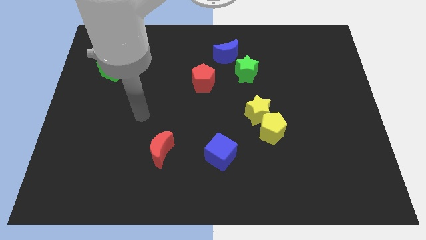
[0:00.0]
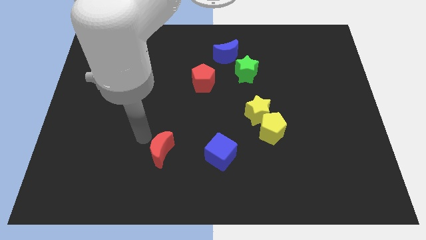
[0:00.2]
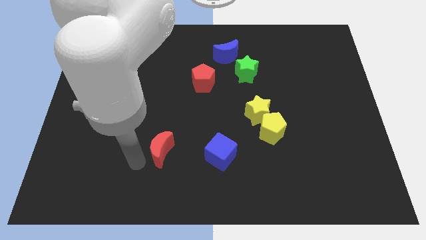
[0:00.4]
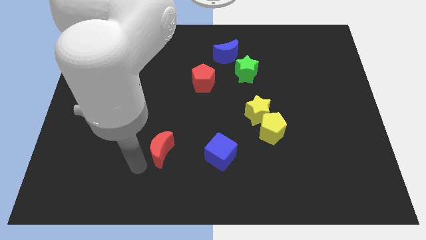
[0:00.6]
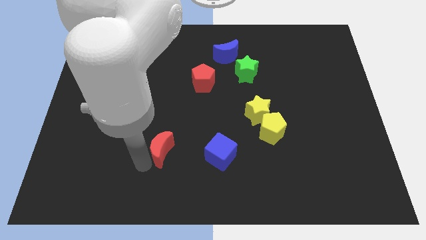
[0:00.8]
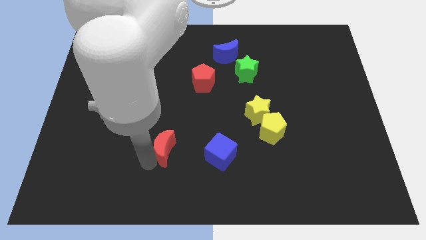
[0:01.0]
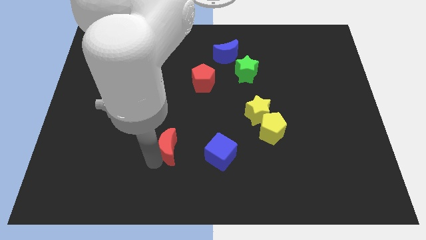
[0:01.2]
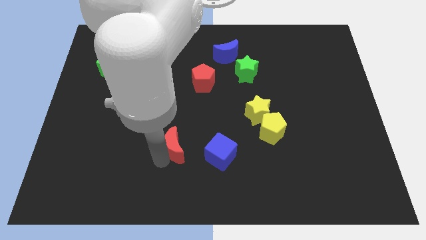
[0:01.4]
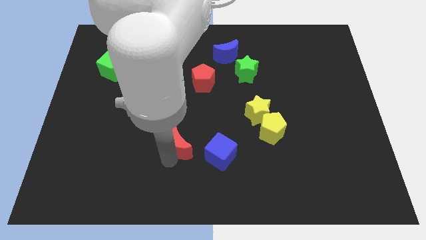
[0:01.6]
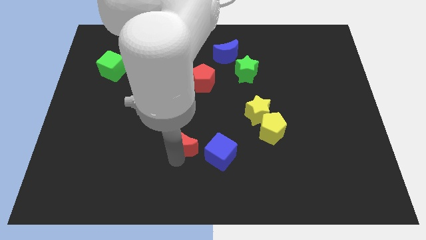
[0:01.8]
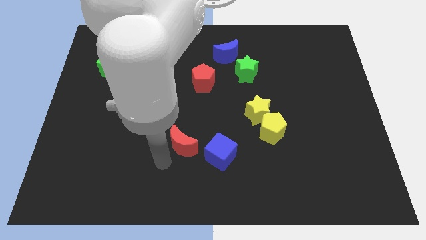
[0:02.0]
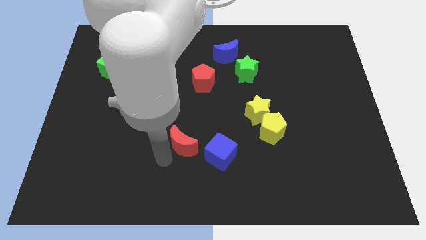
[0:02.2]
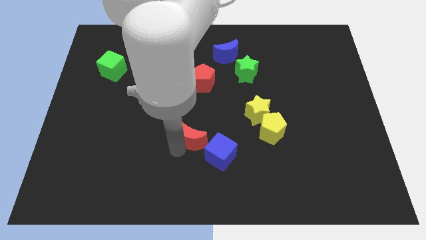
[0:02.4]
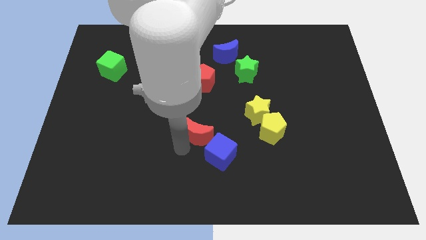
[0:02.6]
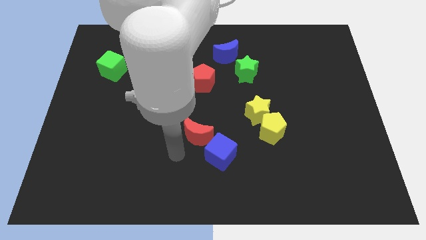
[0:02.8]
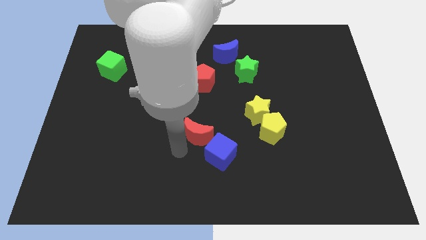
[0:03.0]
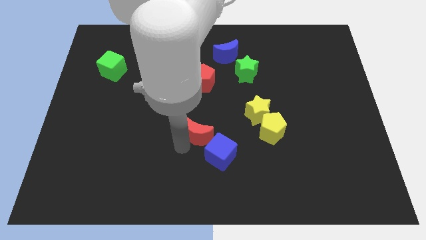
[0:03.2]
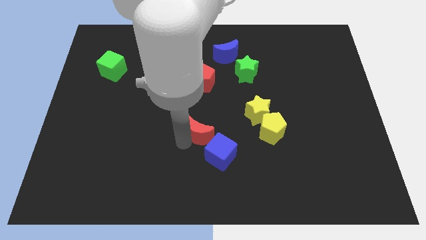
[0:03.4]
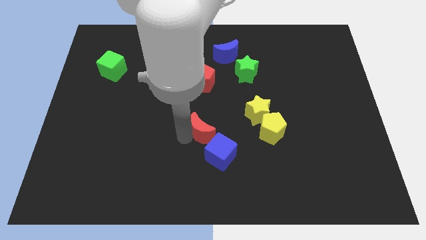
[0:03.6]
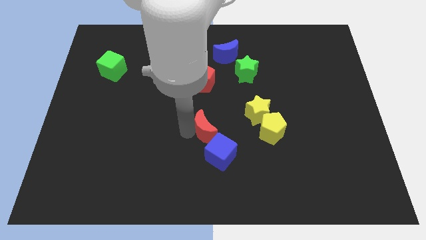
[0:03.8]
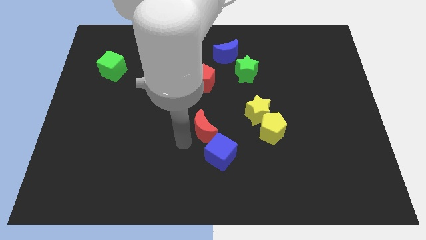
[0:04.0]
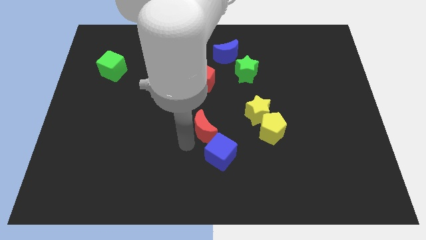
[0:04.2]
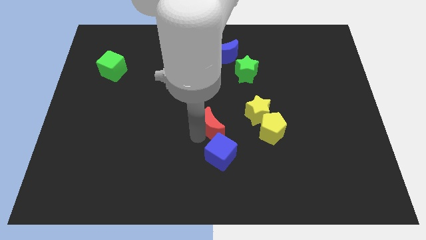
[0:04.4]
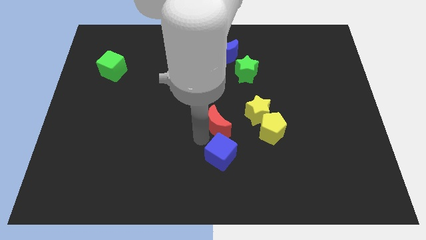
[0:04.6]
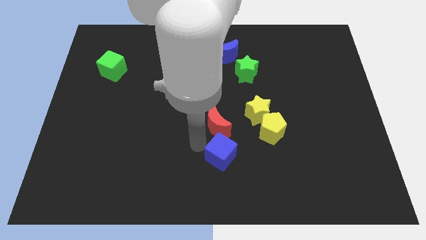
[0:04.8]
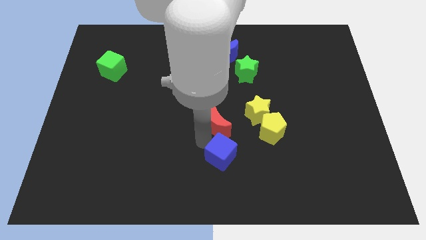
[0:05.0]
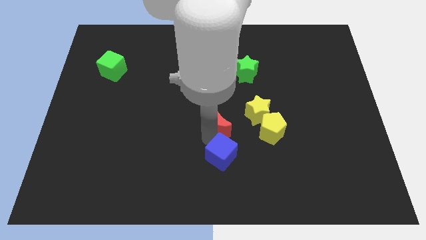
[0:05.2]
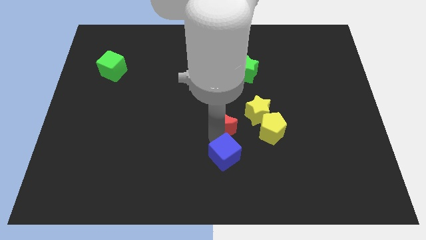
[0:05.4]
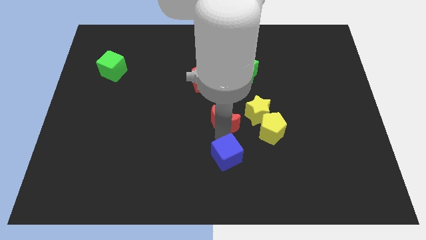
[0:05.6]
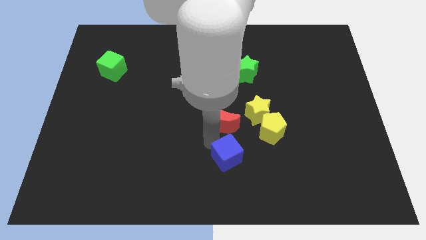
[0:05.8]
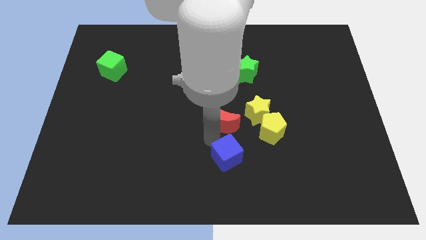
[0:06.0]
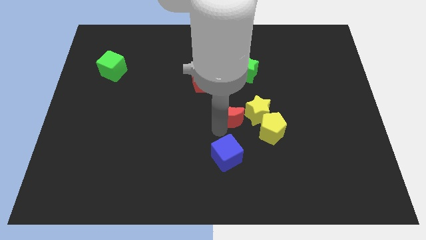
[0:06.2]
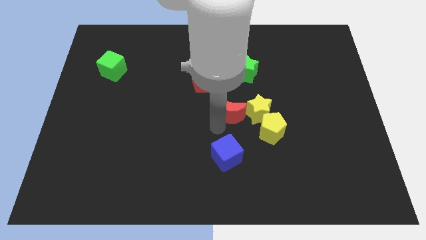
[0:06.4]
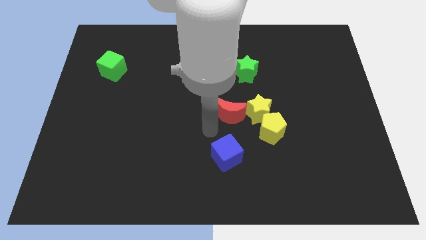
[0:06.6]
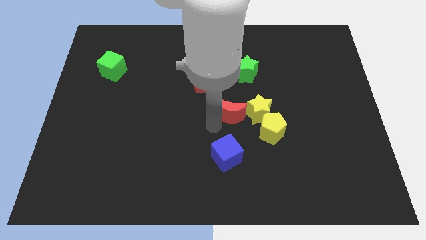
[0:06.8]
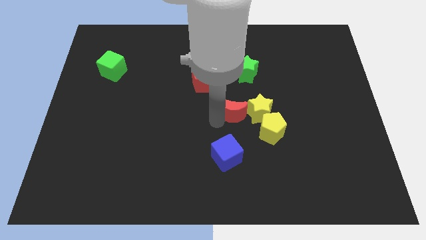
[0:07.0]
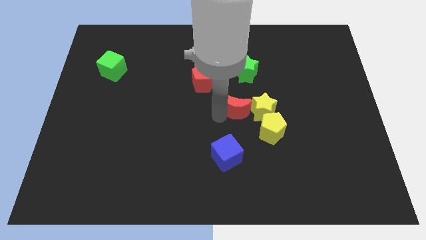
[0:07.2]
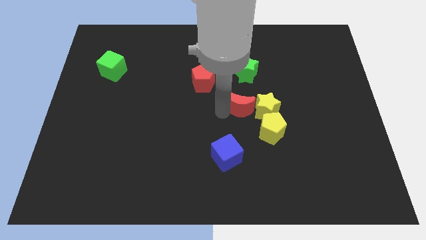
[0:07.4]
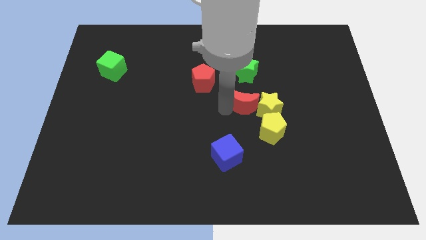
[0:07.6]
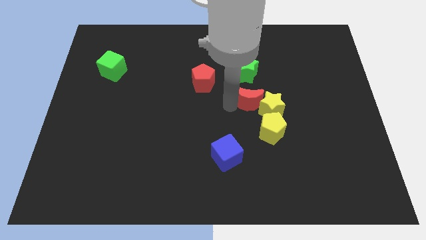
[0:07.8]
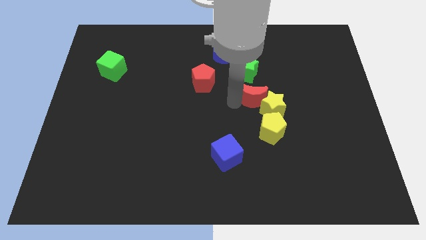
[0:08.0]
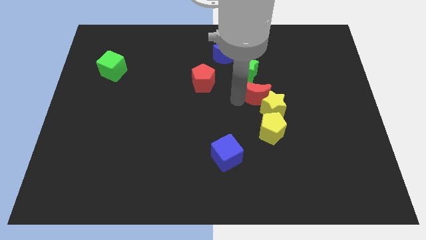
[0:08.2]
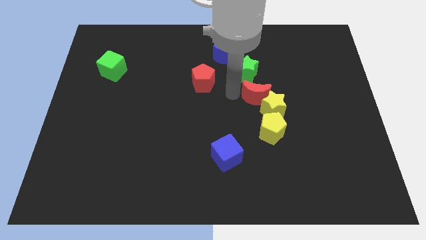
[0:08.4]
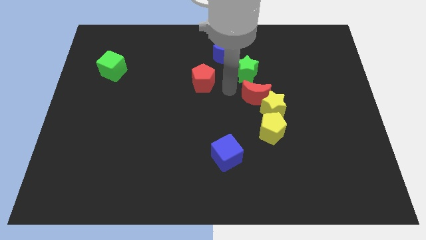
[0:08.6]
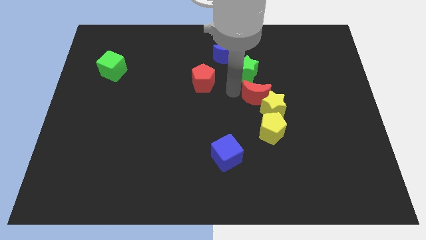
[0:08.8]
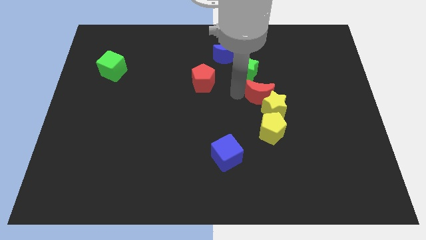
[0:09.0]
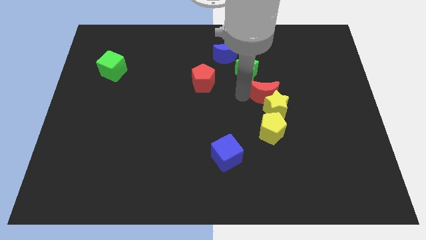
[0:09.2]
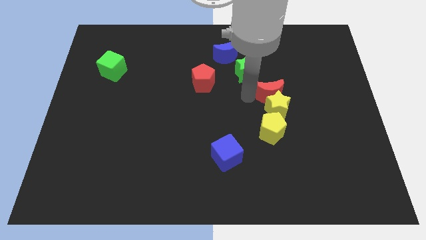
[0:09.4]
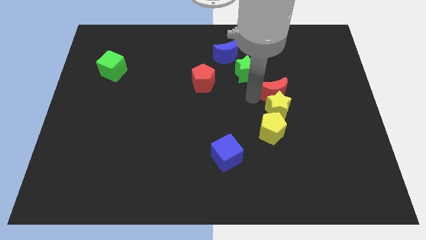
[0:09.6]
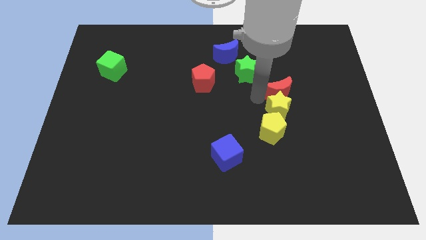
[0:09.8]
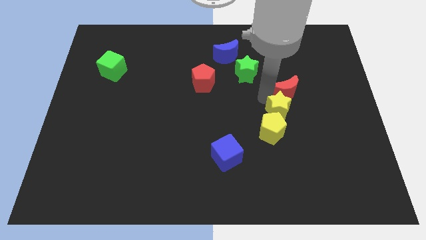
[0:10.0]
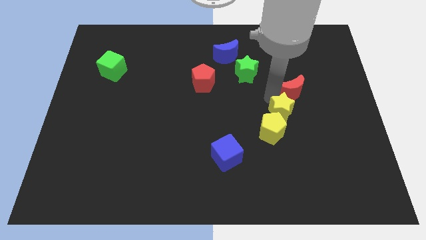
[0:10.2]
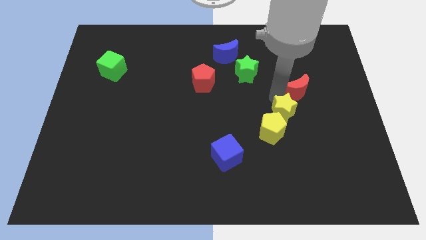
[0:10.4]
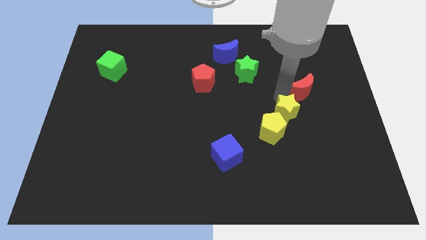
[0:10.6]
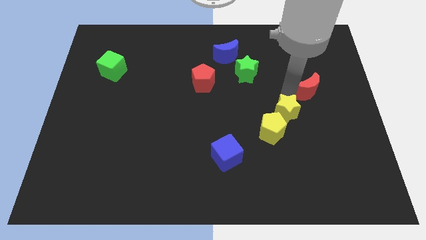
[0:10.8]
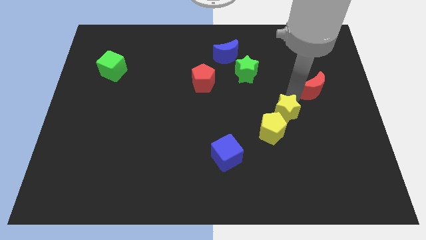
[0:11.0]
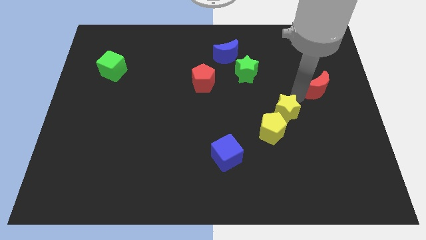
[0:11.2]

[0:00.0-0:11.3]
push the red moon to the center right

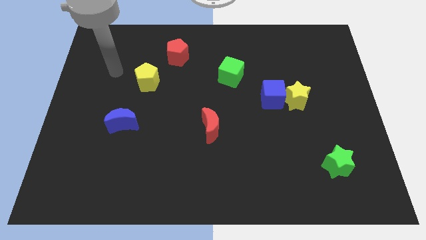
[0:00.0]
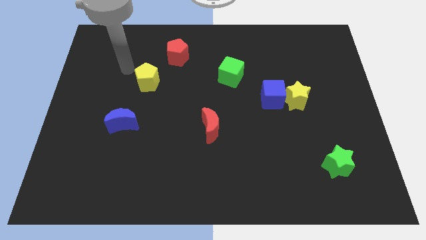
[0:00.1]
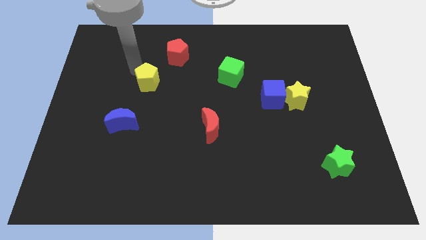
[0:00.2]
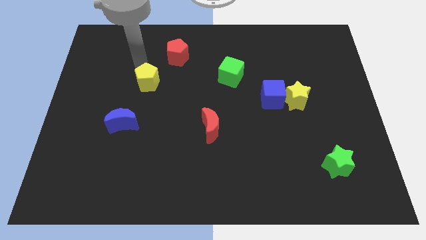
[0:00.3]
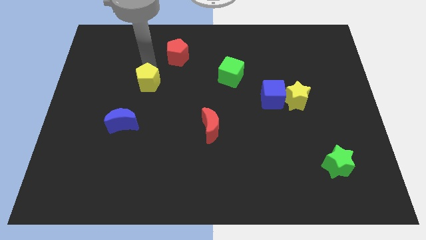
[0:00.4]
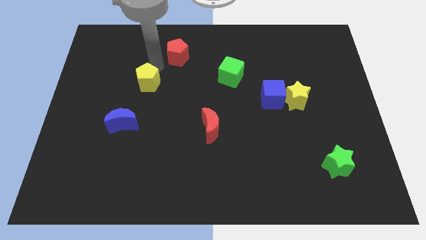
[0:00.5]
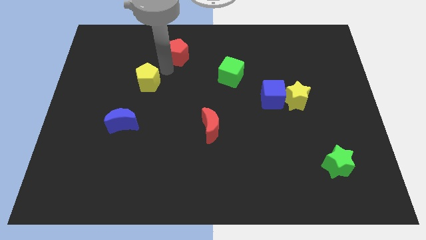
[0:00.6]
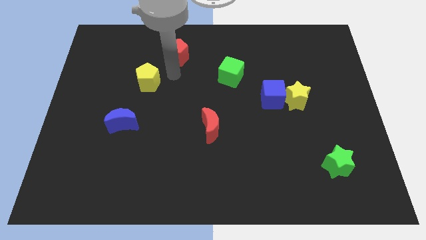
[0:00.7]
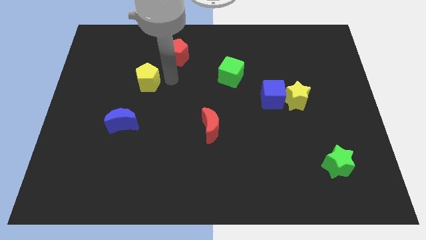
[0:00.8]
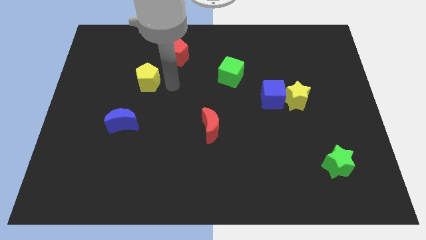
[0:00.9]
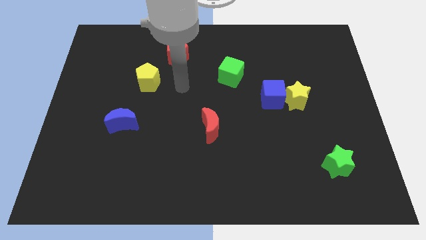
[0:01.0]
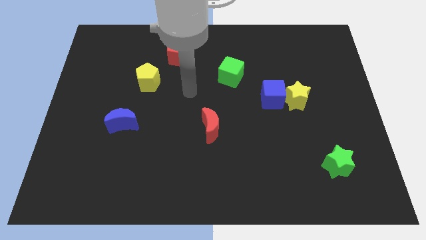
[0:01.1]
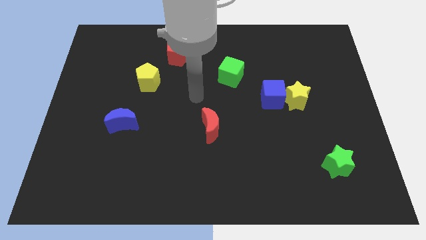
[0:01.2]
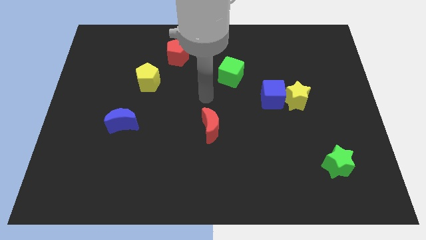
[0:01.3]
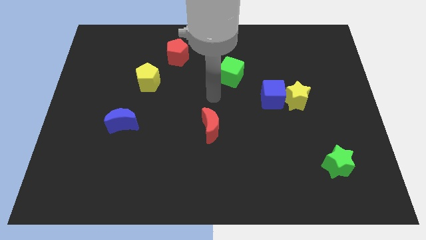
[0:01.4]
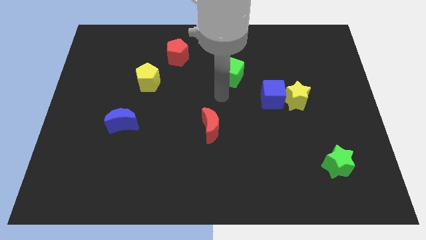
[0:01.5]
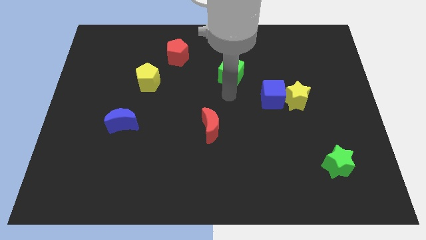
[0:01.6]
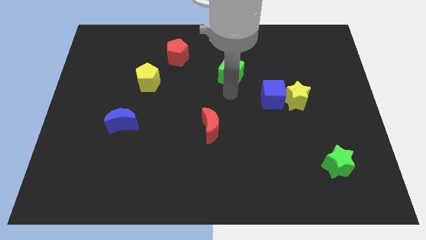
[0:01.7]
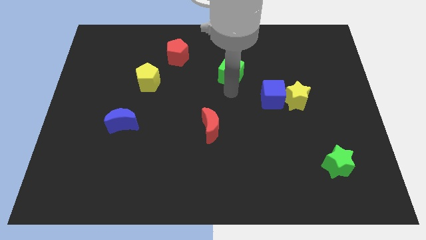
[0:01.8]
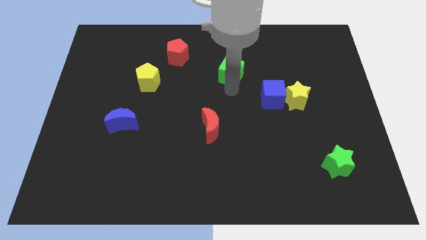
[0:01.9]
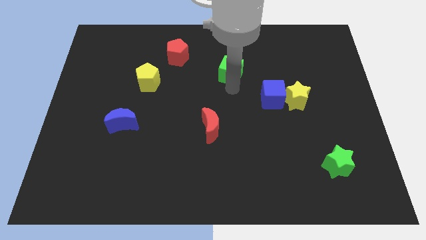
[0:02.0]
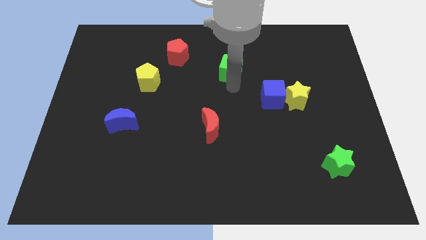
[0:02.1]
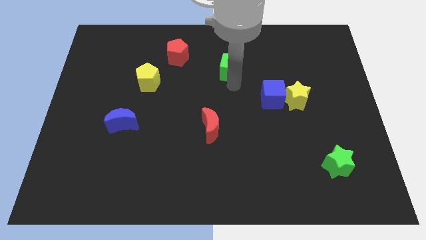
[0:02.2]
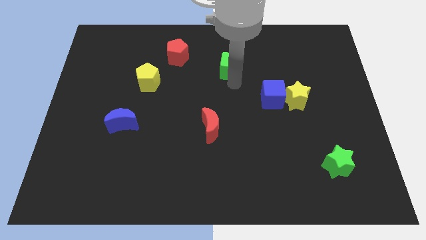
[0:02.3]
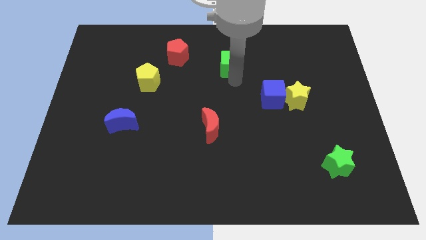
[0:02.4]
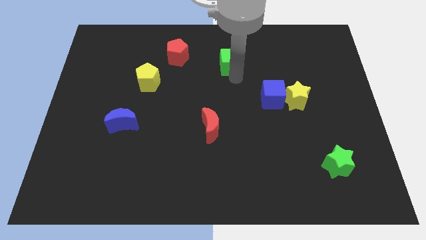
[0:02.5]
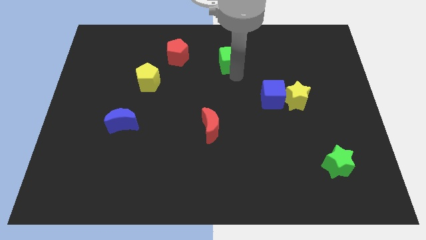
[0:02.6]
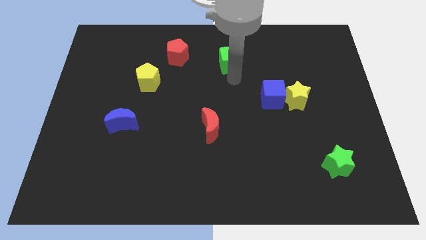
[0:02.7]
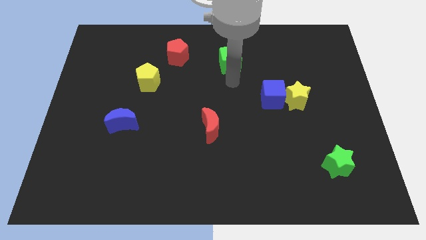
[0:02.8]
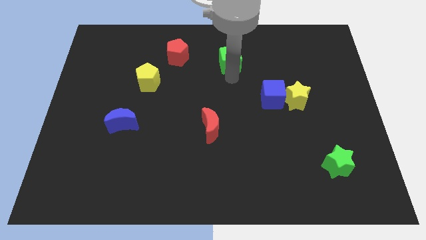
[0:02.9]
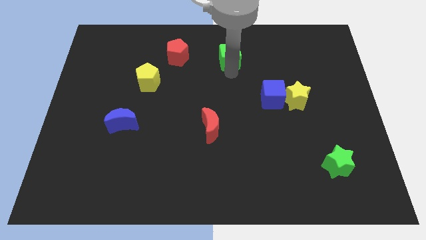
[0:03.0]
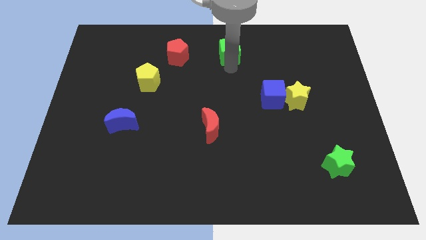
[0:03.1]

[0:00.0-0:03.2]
push the green cube to the towards your base
